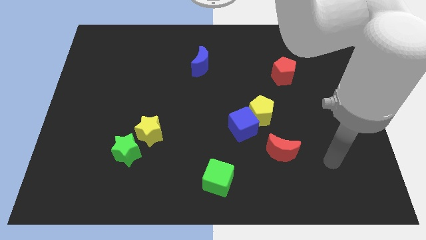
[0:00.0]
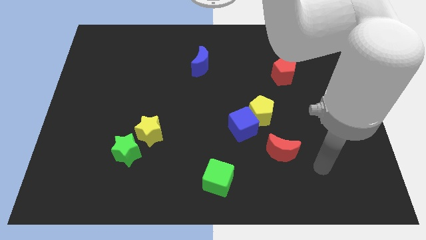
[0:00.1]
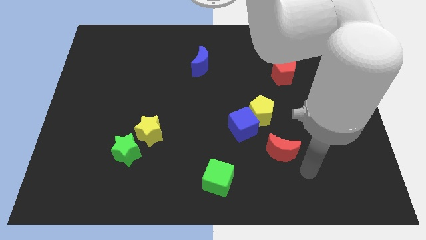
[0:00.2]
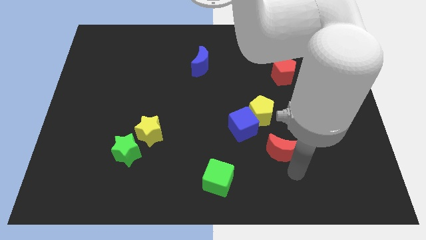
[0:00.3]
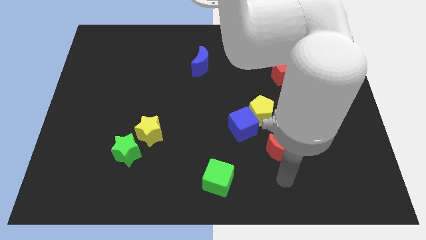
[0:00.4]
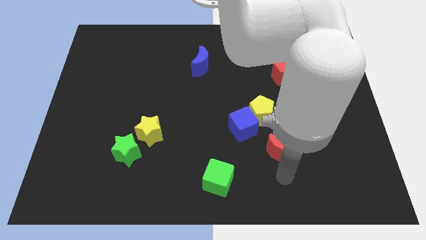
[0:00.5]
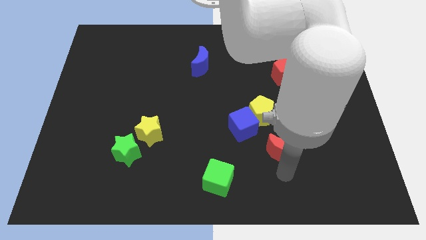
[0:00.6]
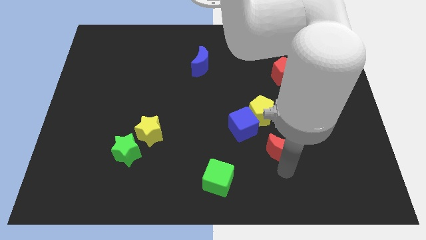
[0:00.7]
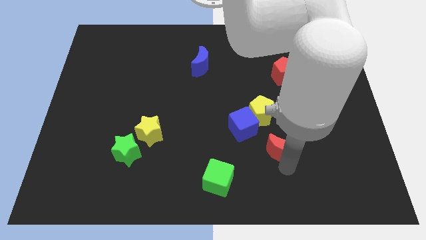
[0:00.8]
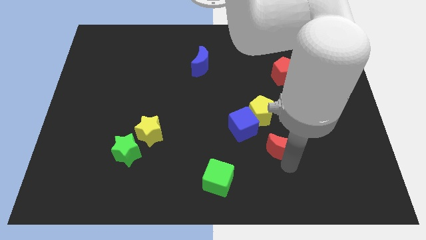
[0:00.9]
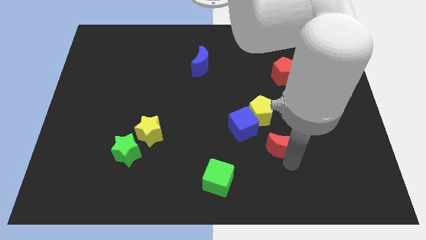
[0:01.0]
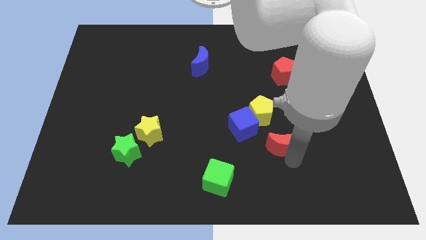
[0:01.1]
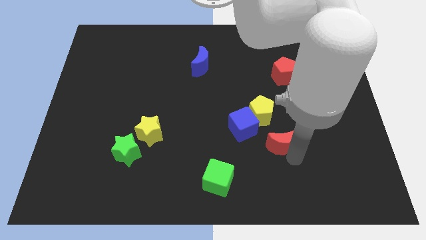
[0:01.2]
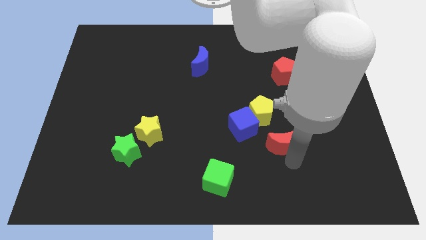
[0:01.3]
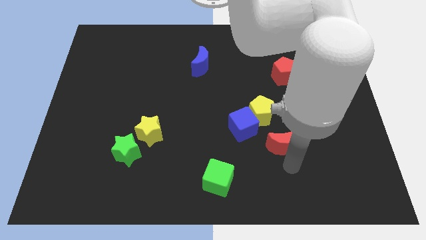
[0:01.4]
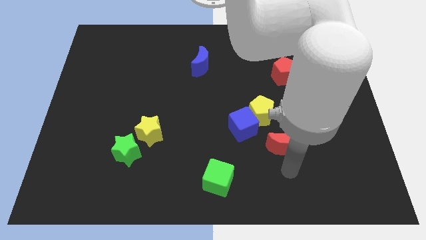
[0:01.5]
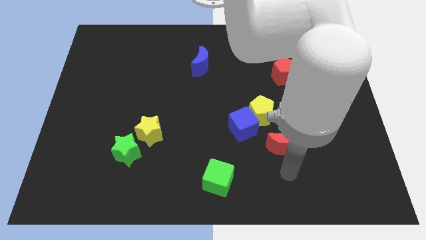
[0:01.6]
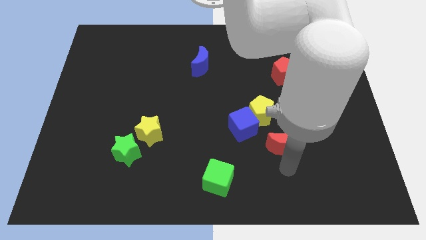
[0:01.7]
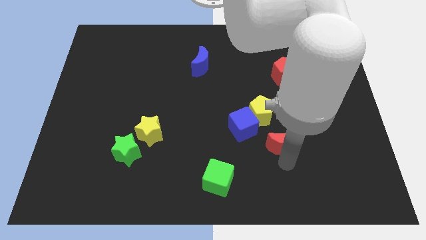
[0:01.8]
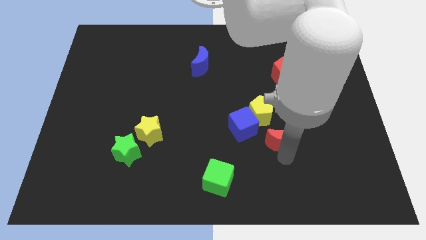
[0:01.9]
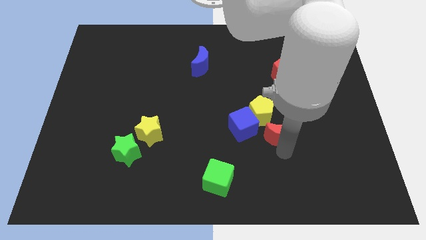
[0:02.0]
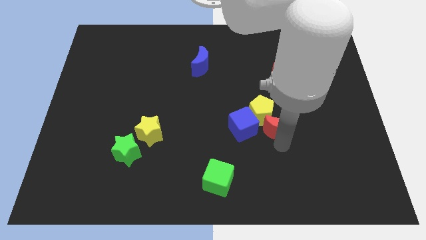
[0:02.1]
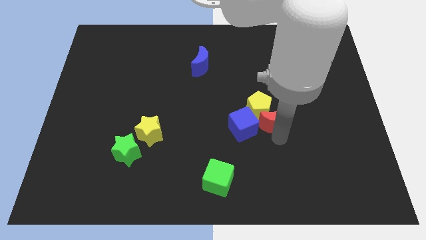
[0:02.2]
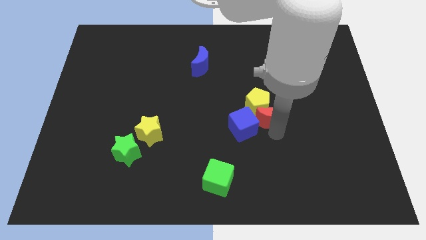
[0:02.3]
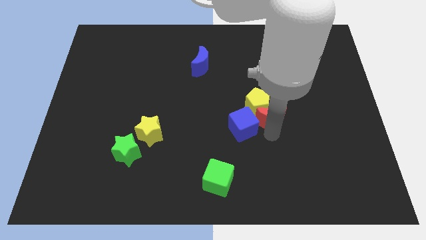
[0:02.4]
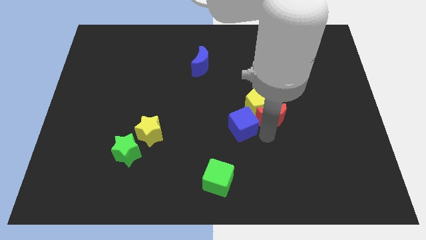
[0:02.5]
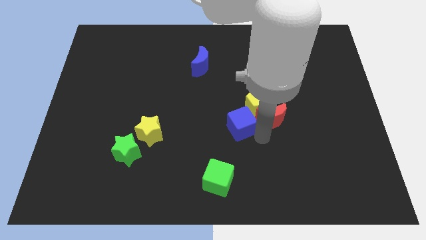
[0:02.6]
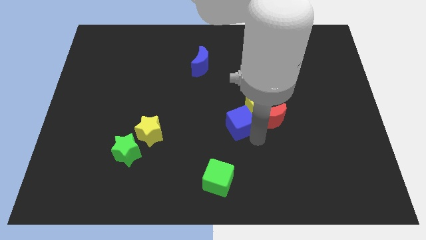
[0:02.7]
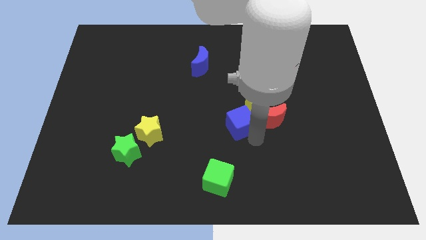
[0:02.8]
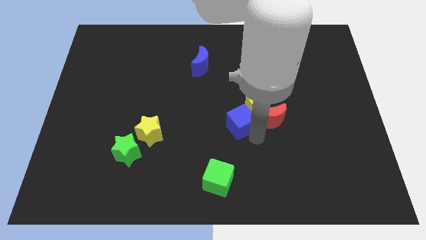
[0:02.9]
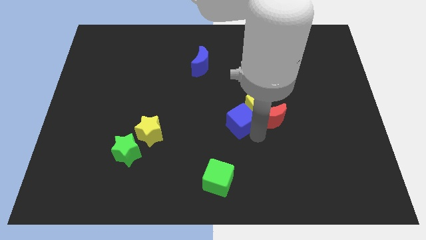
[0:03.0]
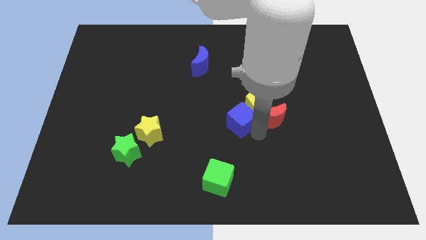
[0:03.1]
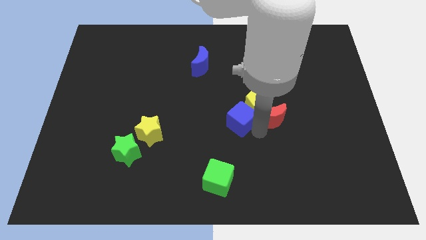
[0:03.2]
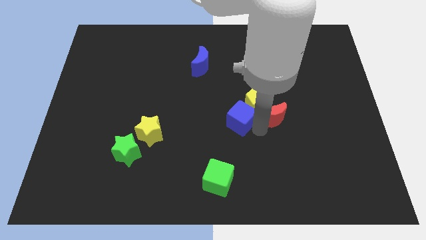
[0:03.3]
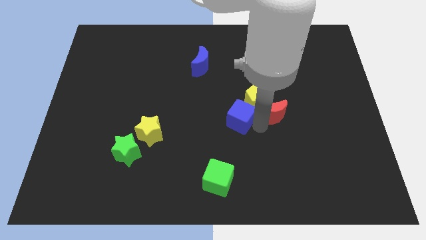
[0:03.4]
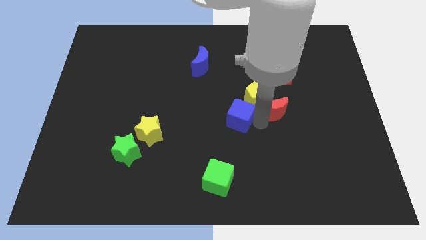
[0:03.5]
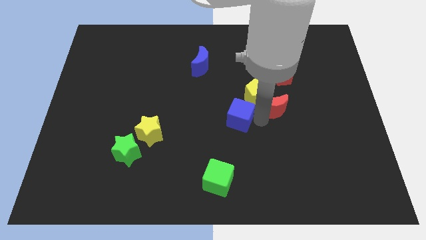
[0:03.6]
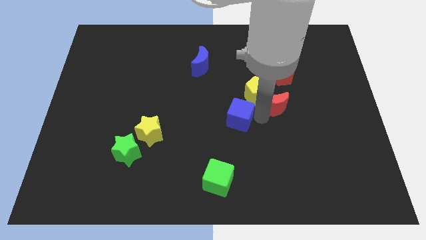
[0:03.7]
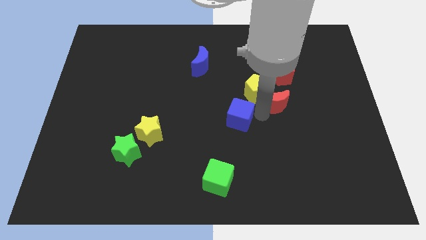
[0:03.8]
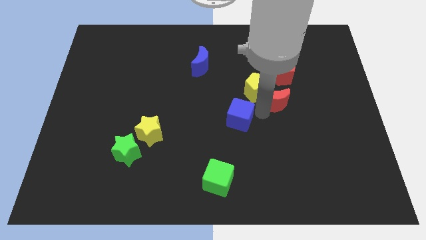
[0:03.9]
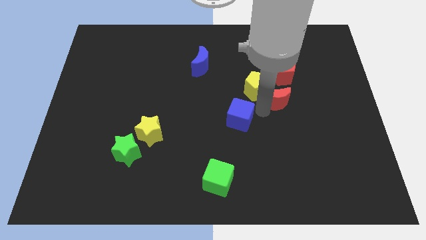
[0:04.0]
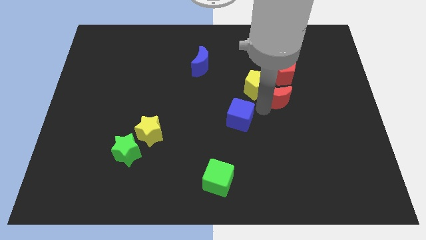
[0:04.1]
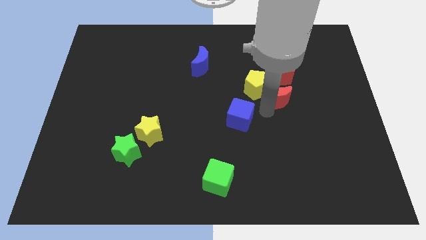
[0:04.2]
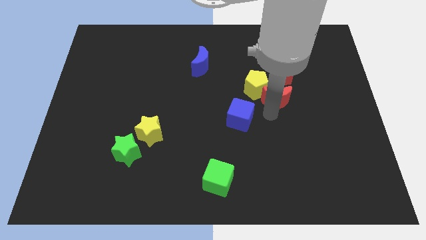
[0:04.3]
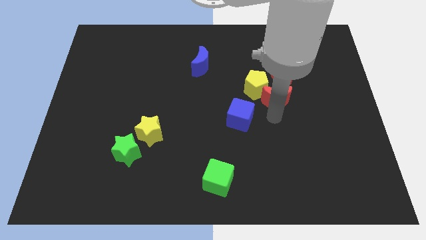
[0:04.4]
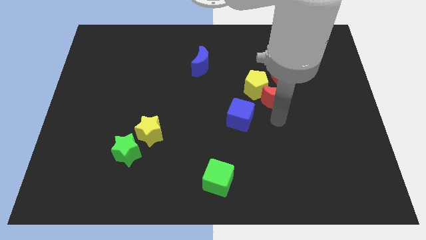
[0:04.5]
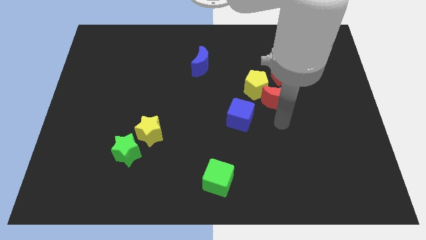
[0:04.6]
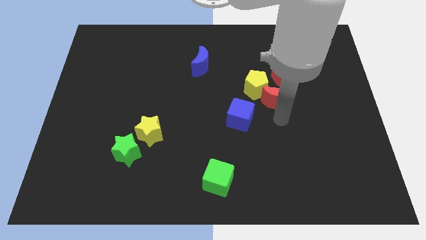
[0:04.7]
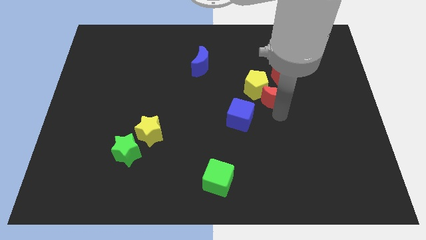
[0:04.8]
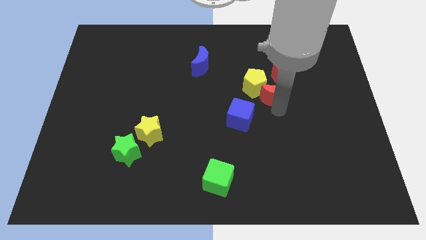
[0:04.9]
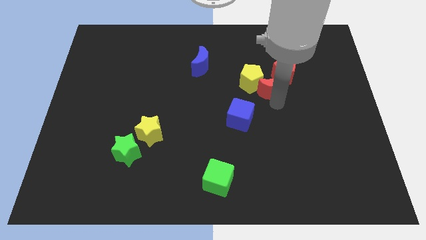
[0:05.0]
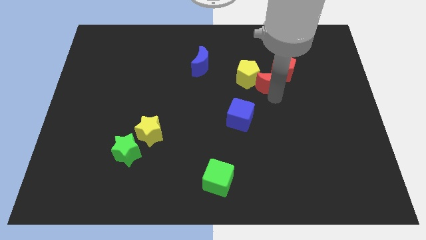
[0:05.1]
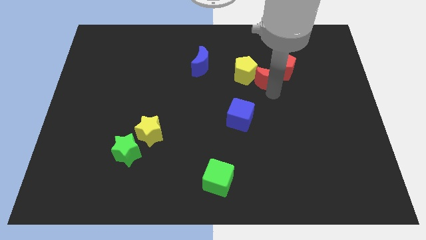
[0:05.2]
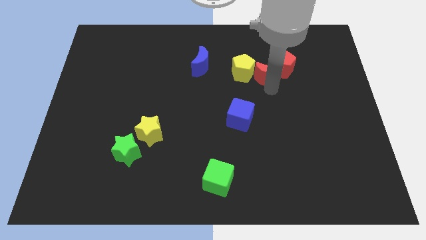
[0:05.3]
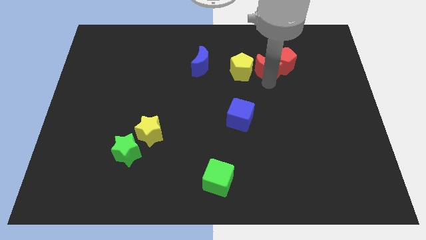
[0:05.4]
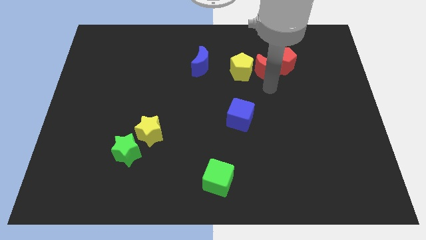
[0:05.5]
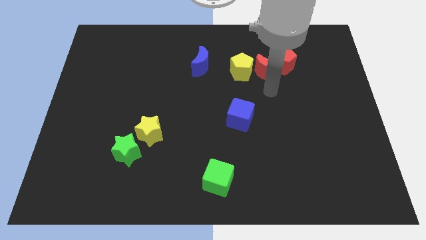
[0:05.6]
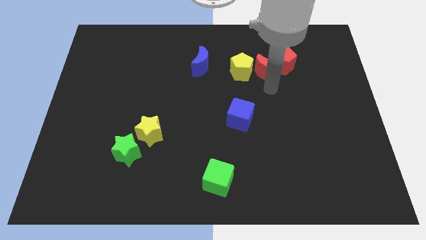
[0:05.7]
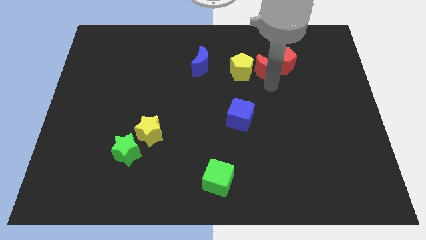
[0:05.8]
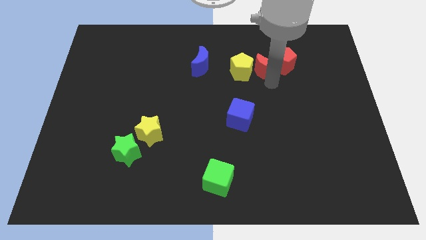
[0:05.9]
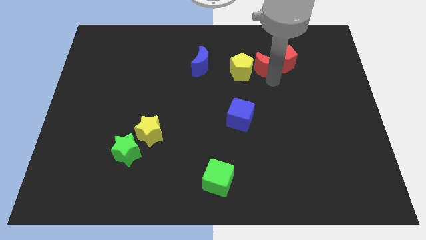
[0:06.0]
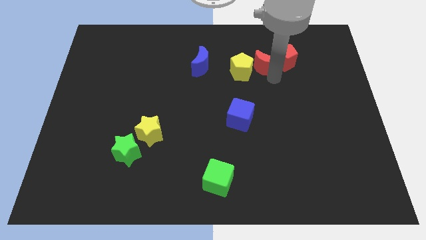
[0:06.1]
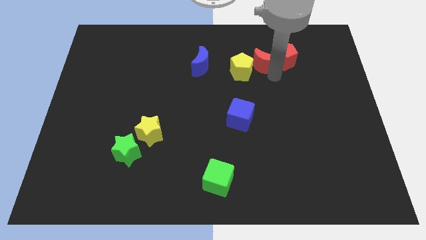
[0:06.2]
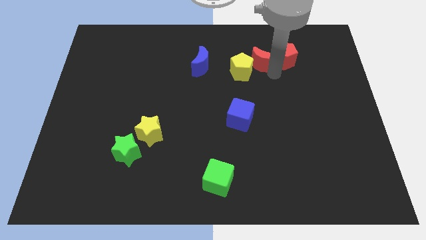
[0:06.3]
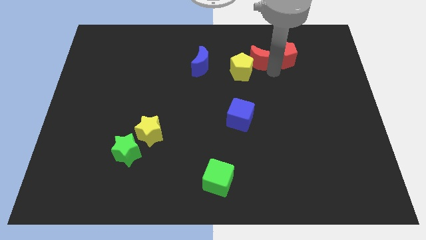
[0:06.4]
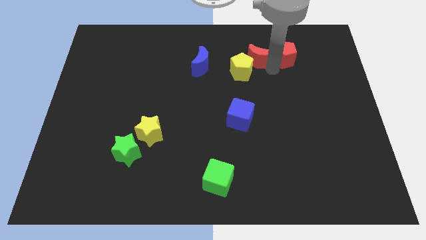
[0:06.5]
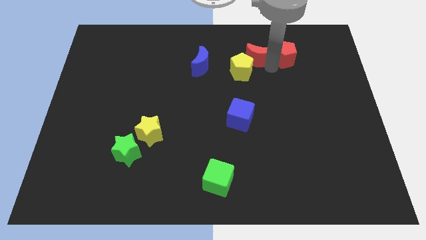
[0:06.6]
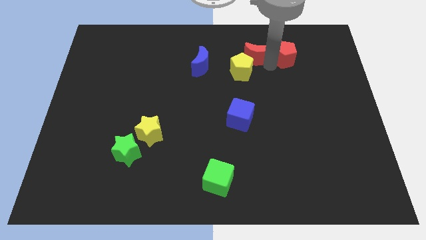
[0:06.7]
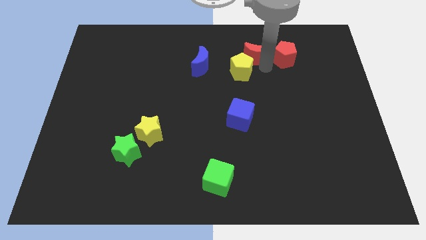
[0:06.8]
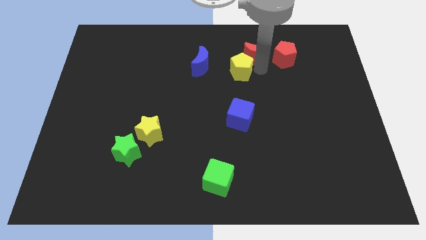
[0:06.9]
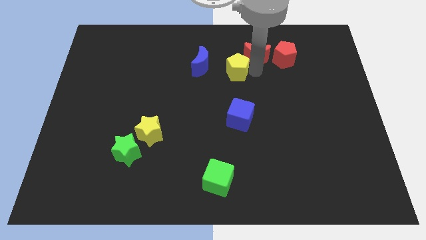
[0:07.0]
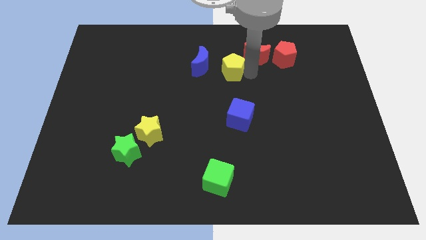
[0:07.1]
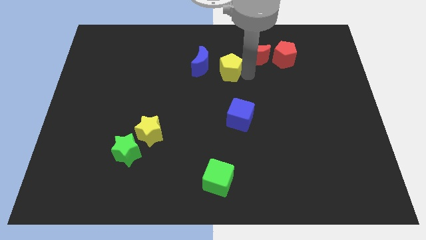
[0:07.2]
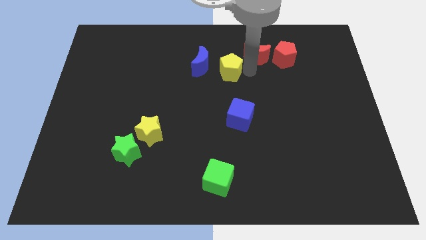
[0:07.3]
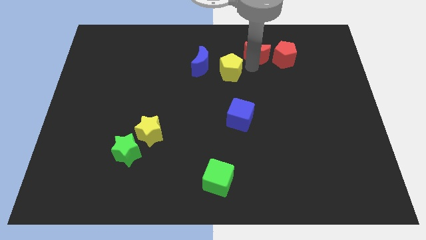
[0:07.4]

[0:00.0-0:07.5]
push the red moon diagonally up and to the left of the red pentagon

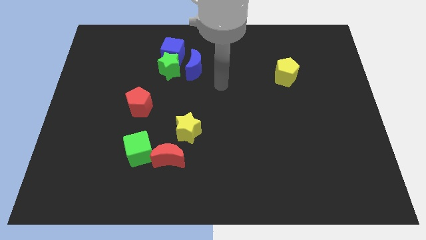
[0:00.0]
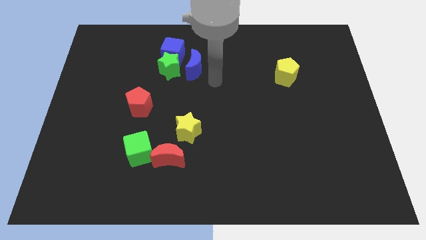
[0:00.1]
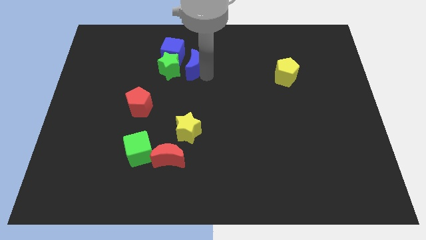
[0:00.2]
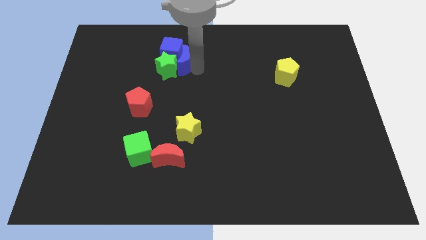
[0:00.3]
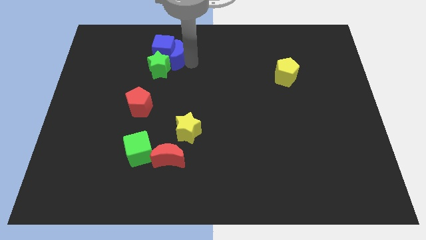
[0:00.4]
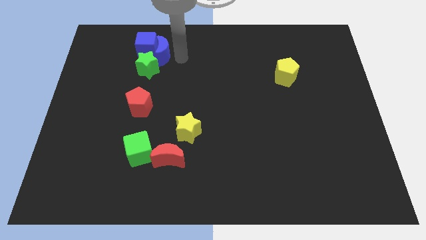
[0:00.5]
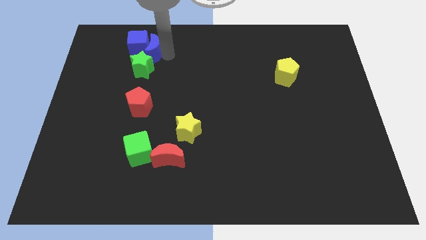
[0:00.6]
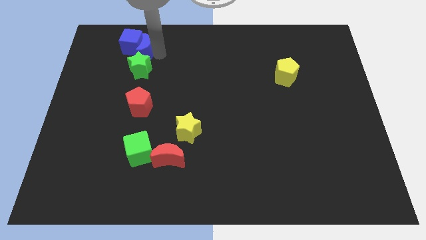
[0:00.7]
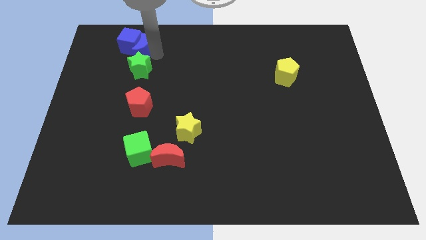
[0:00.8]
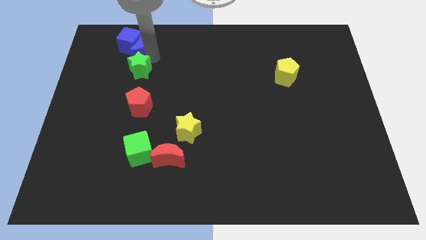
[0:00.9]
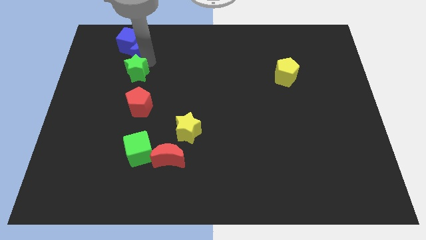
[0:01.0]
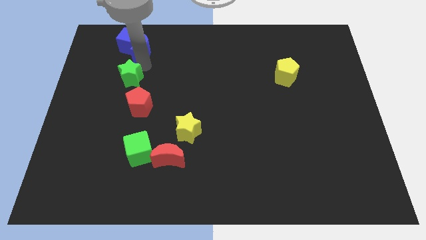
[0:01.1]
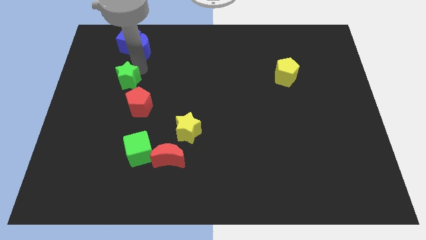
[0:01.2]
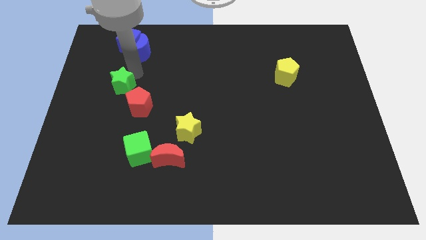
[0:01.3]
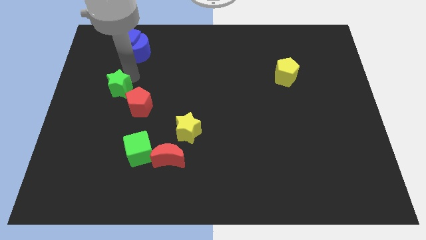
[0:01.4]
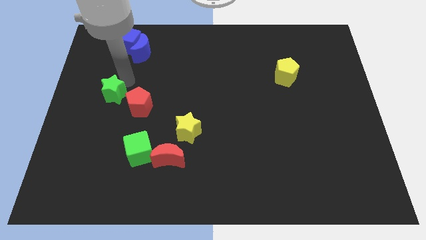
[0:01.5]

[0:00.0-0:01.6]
put the green star to the left of the red pentagon
